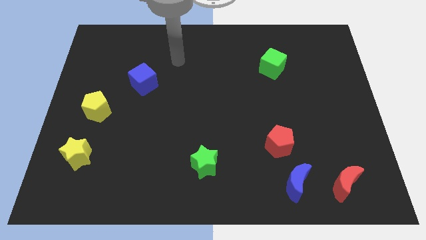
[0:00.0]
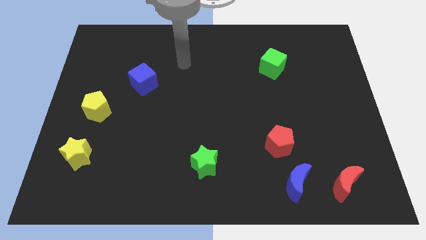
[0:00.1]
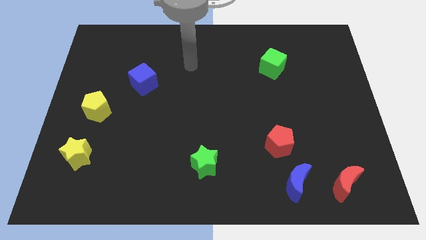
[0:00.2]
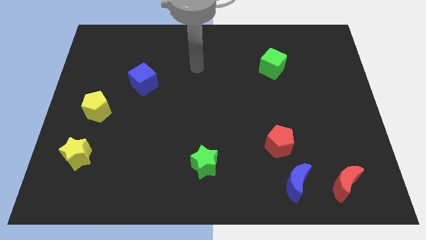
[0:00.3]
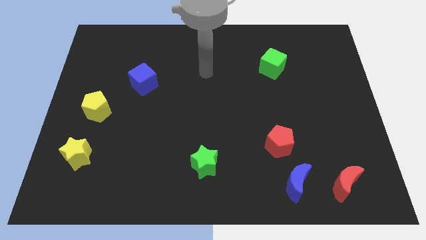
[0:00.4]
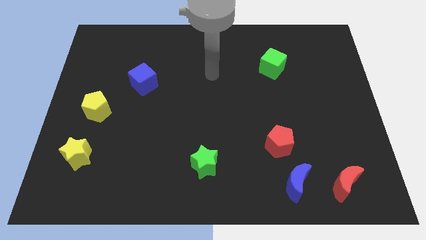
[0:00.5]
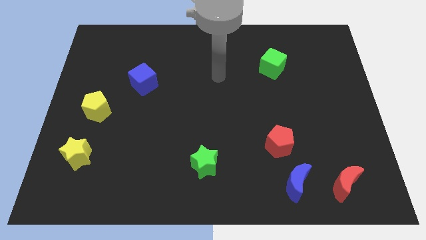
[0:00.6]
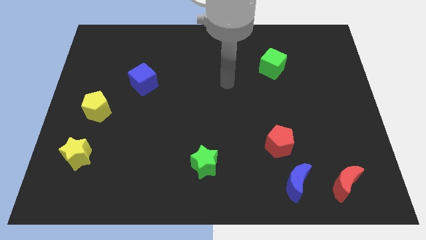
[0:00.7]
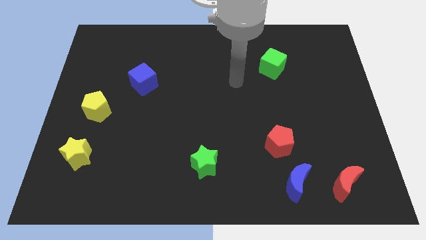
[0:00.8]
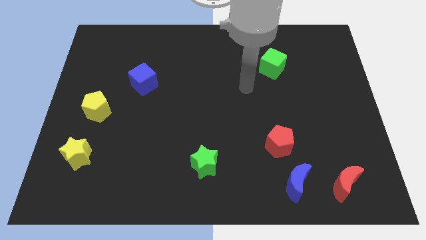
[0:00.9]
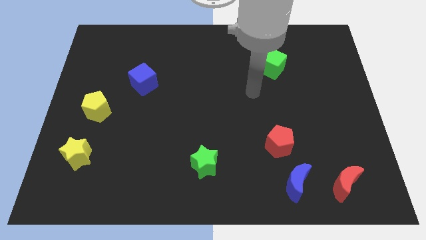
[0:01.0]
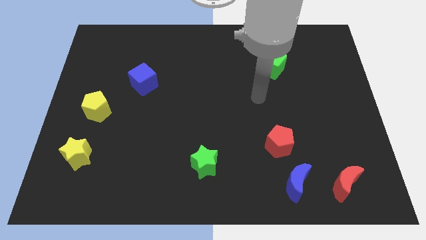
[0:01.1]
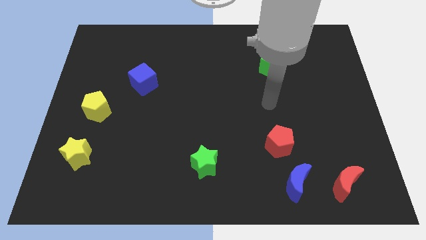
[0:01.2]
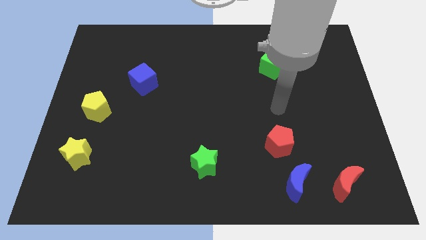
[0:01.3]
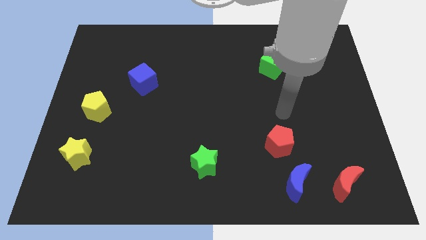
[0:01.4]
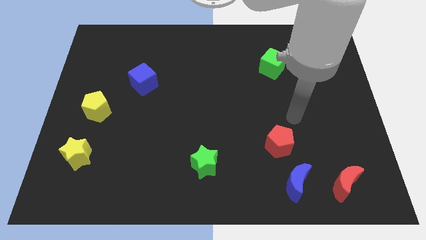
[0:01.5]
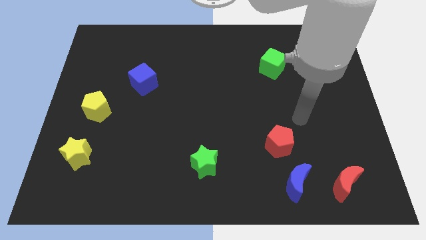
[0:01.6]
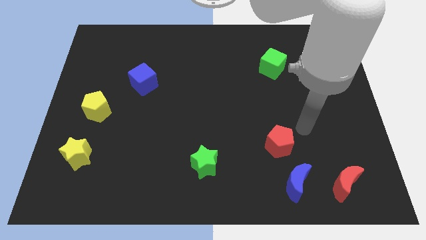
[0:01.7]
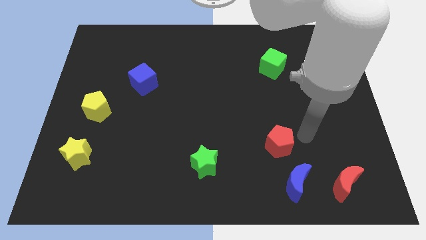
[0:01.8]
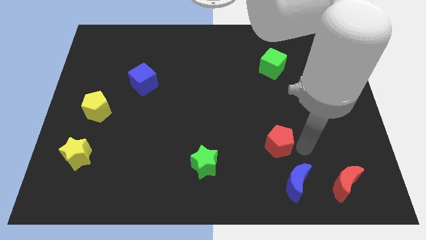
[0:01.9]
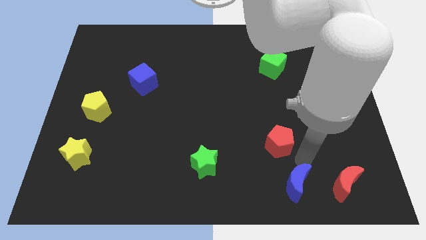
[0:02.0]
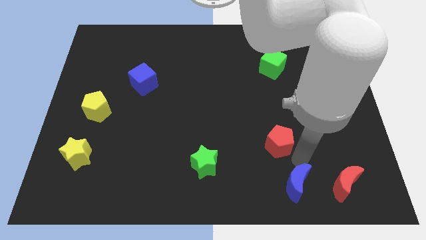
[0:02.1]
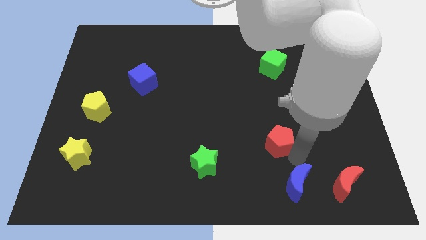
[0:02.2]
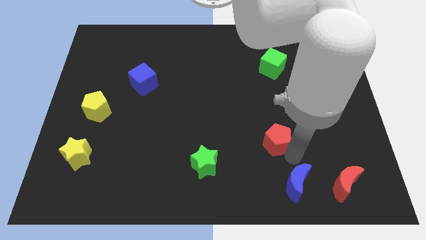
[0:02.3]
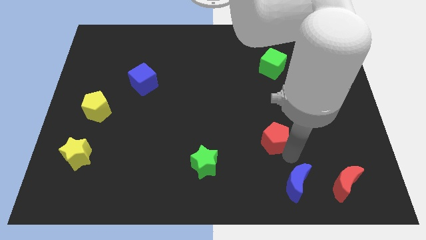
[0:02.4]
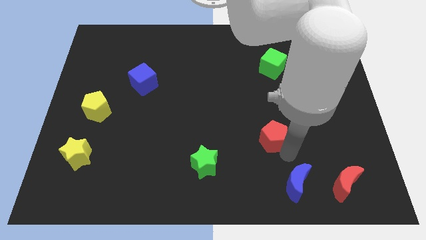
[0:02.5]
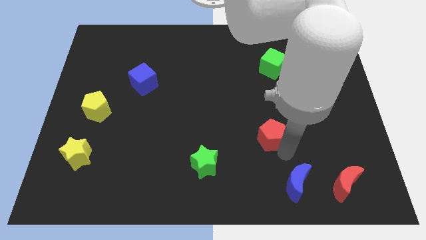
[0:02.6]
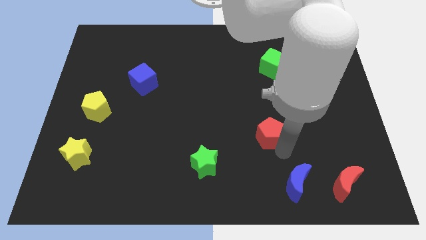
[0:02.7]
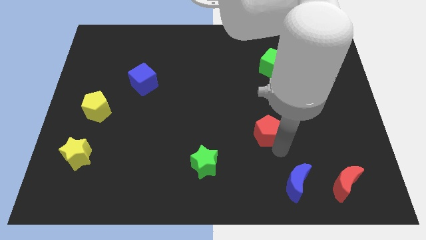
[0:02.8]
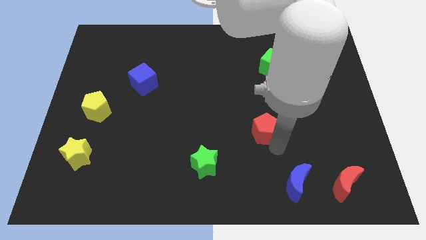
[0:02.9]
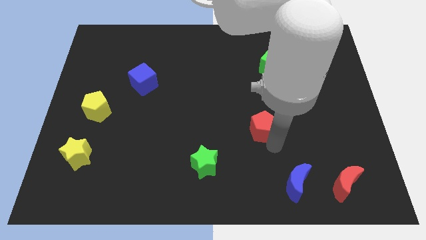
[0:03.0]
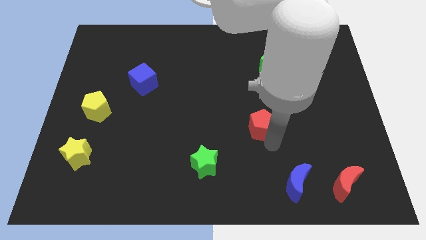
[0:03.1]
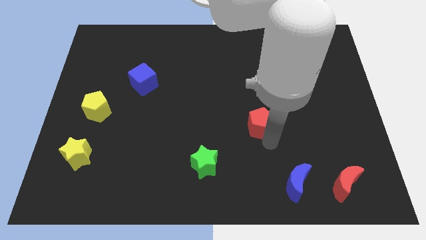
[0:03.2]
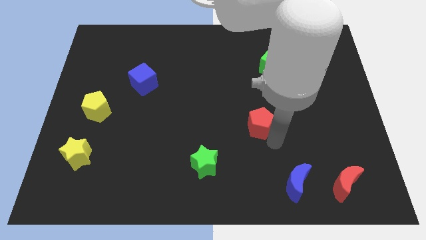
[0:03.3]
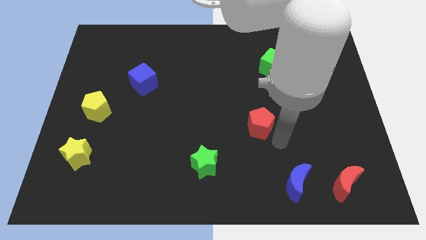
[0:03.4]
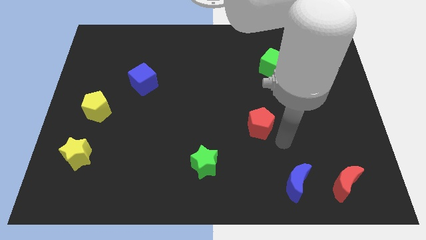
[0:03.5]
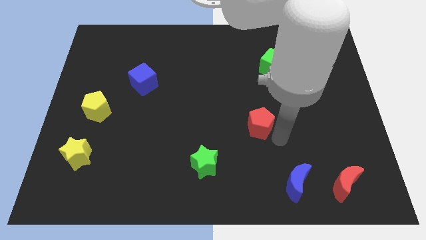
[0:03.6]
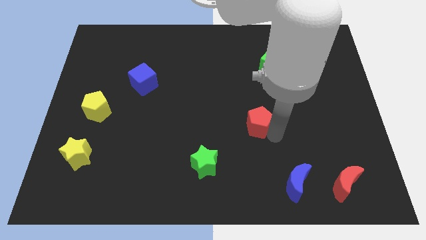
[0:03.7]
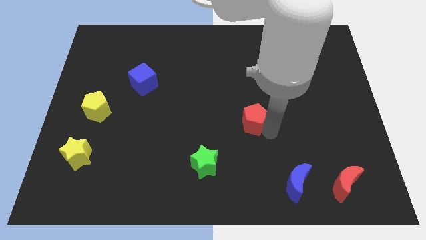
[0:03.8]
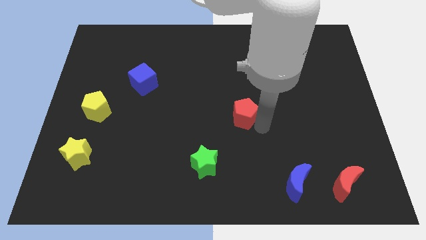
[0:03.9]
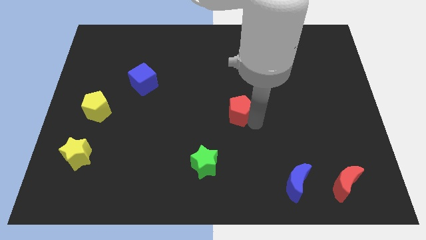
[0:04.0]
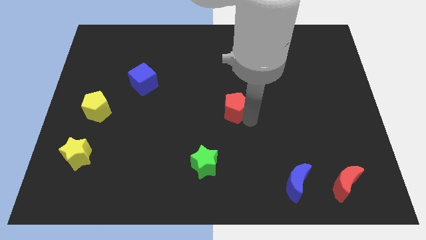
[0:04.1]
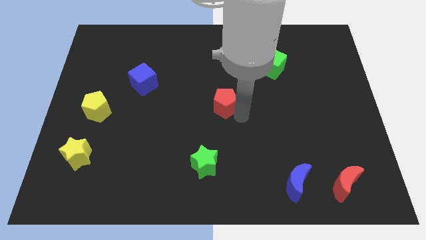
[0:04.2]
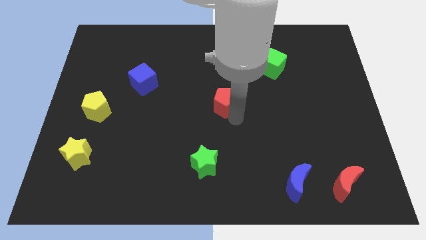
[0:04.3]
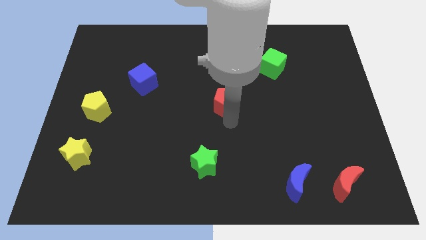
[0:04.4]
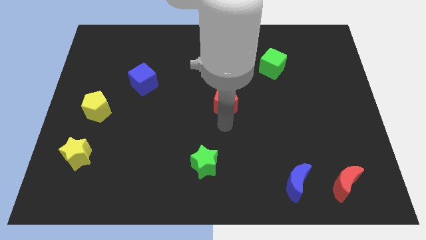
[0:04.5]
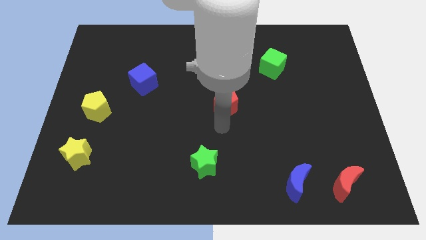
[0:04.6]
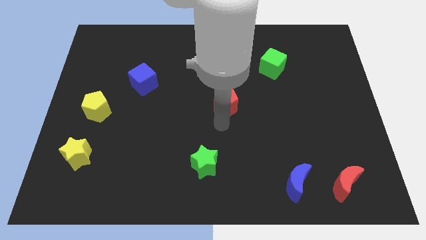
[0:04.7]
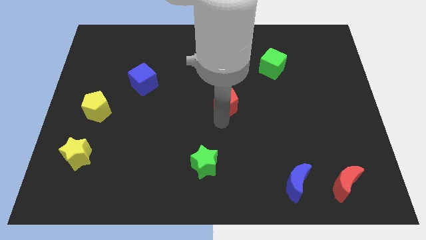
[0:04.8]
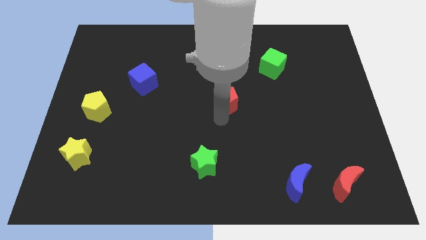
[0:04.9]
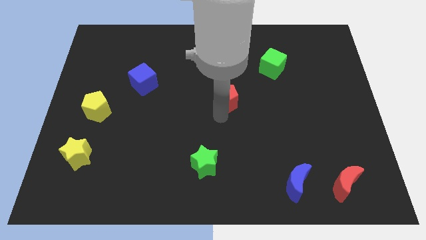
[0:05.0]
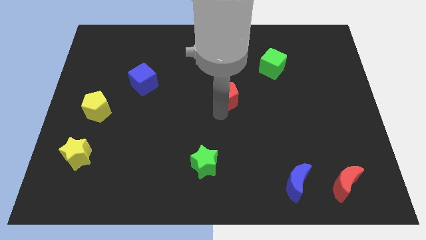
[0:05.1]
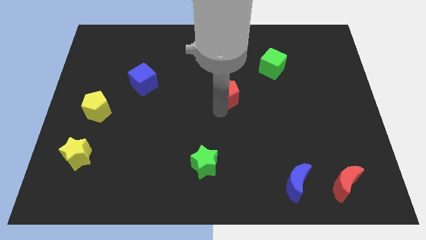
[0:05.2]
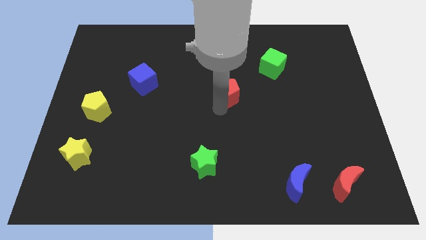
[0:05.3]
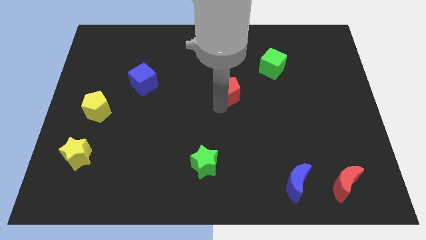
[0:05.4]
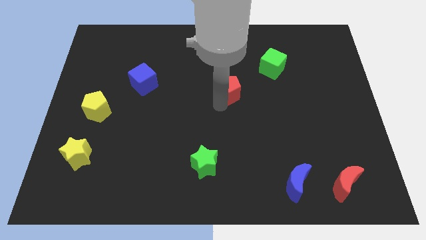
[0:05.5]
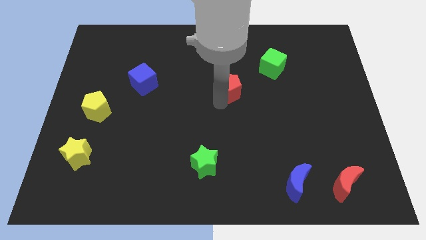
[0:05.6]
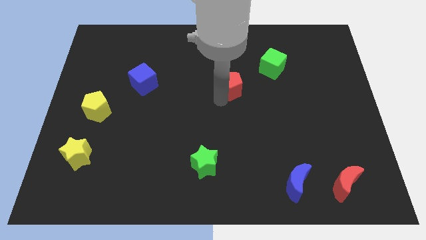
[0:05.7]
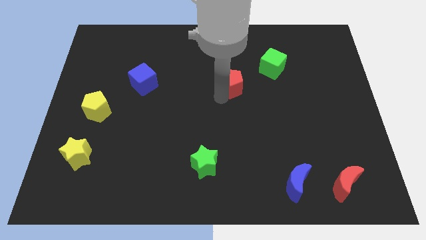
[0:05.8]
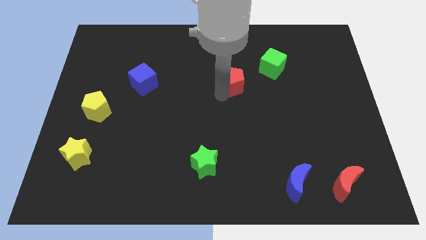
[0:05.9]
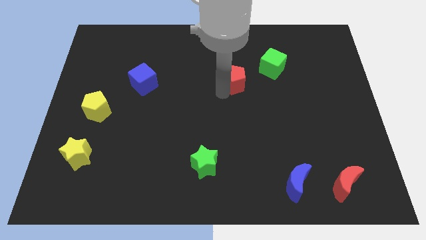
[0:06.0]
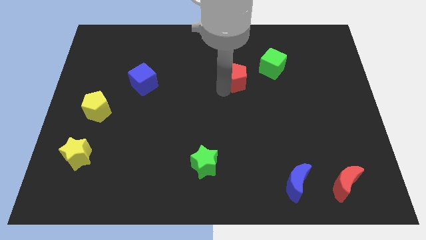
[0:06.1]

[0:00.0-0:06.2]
put the red pentagon just left of the green cube
